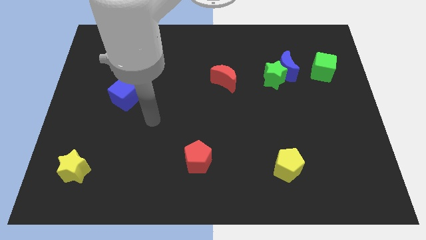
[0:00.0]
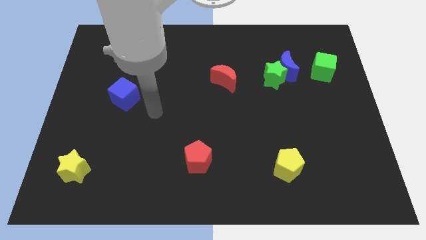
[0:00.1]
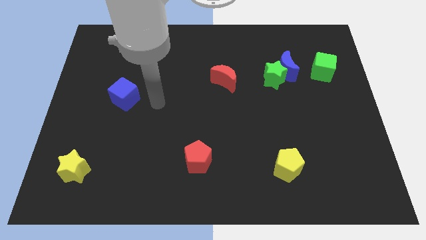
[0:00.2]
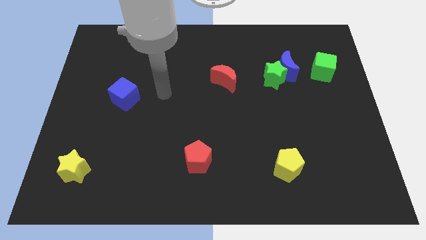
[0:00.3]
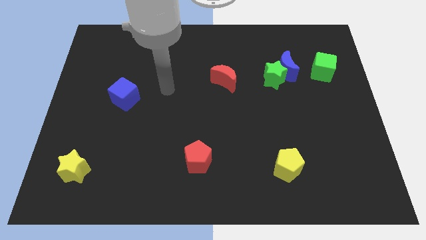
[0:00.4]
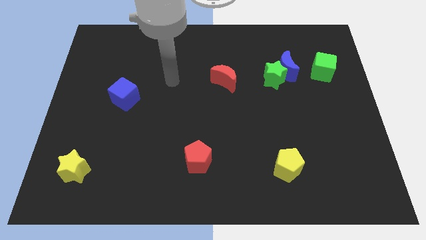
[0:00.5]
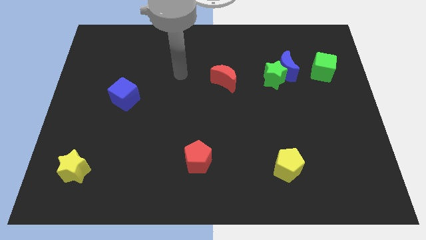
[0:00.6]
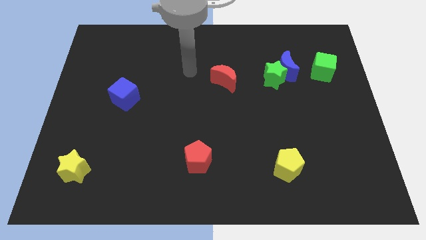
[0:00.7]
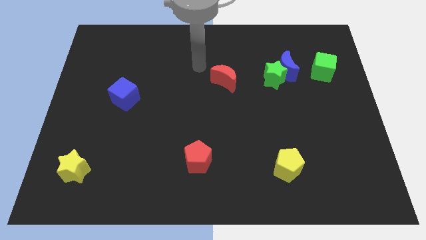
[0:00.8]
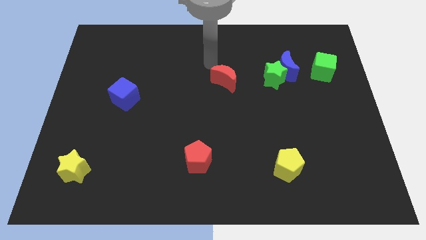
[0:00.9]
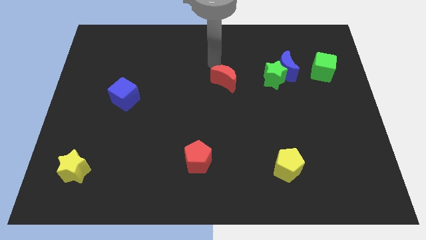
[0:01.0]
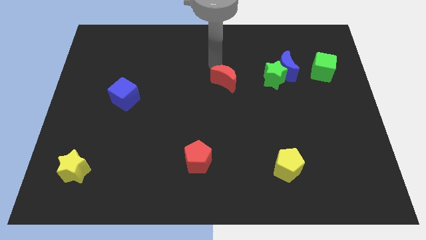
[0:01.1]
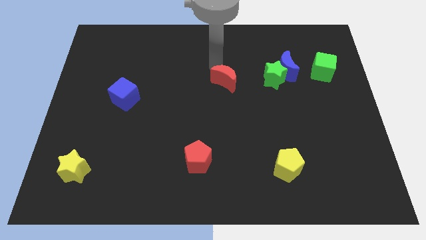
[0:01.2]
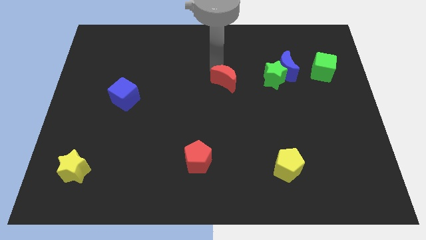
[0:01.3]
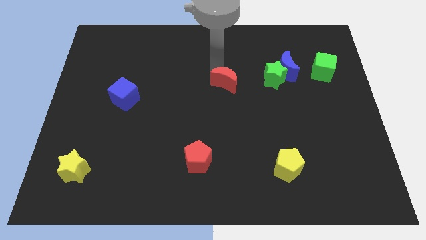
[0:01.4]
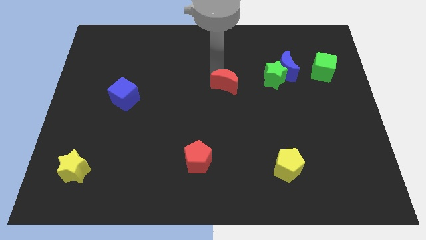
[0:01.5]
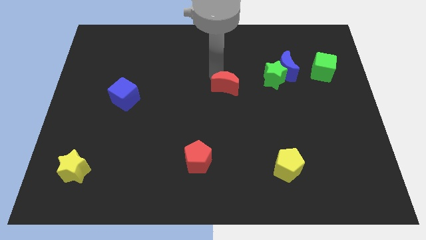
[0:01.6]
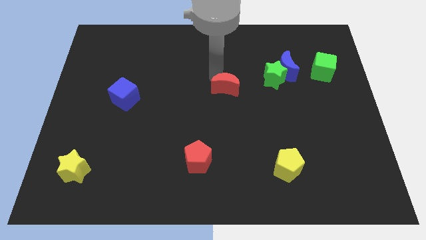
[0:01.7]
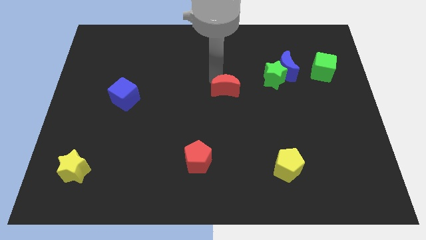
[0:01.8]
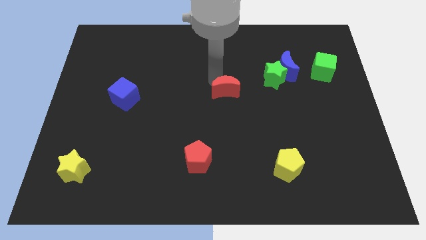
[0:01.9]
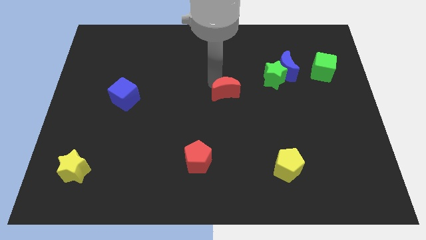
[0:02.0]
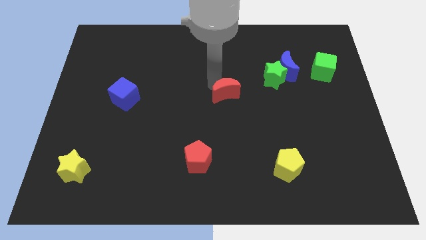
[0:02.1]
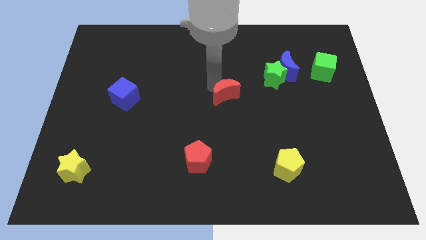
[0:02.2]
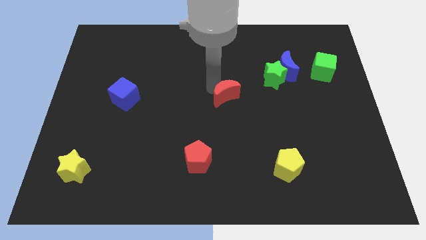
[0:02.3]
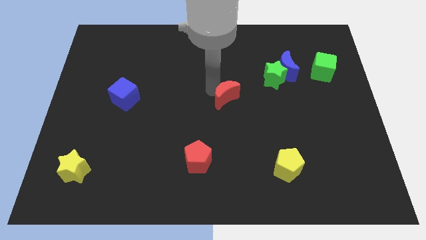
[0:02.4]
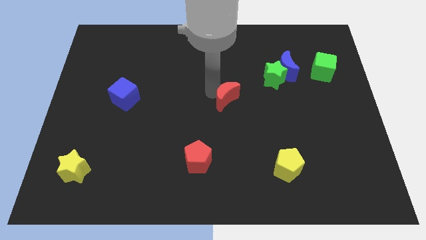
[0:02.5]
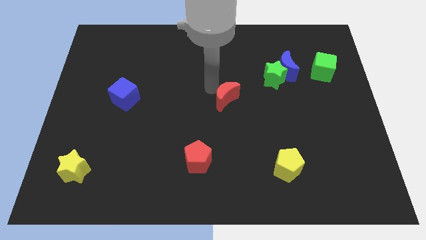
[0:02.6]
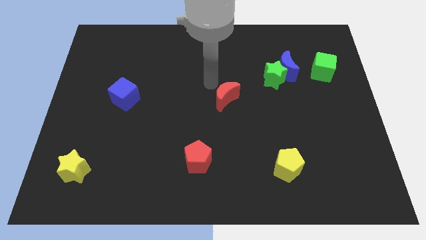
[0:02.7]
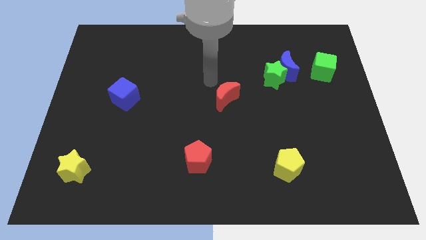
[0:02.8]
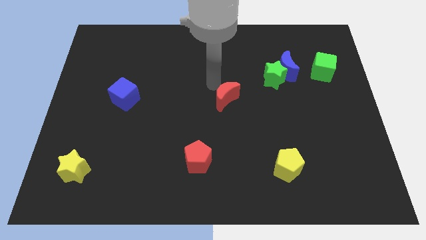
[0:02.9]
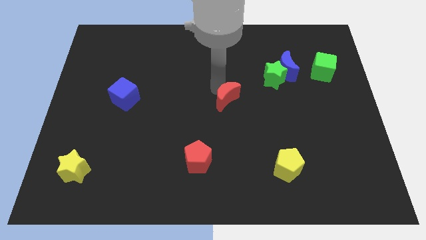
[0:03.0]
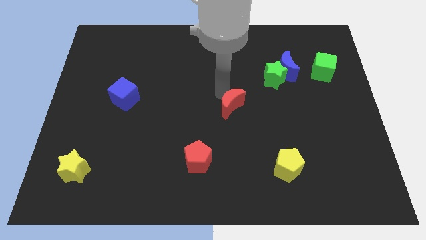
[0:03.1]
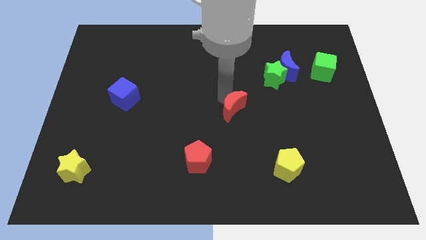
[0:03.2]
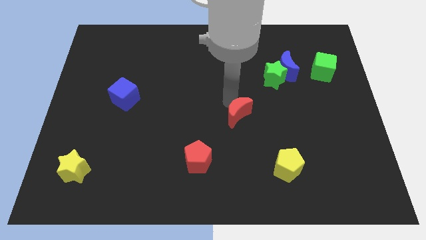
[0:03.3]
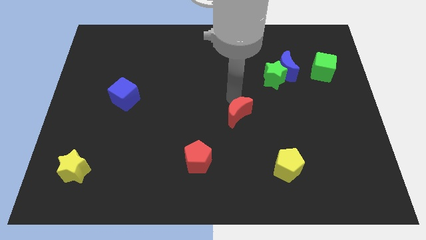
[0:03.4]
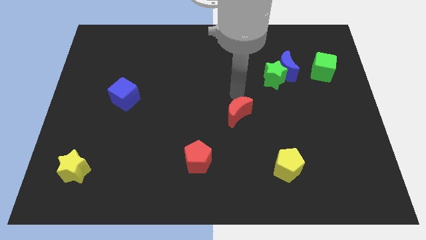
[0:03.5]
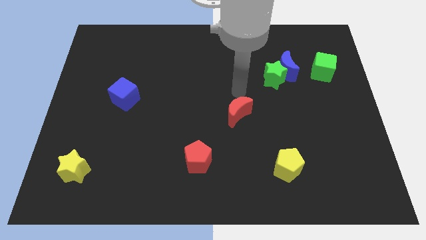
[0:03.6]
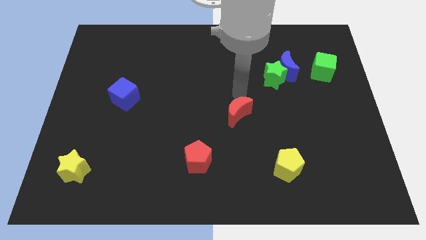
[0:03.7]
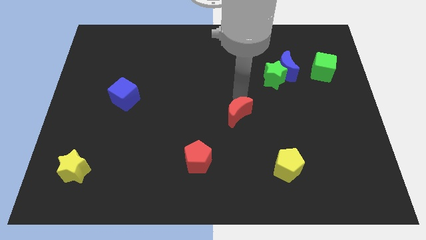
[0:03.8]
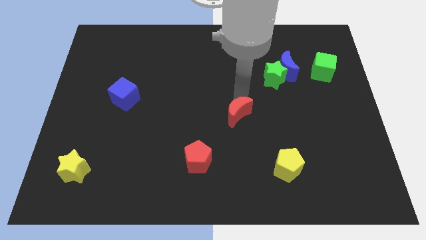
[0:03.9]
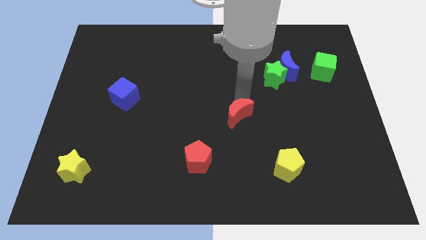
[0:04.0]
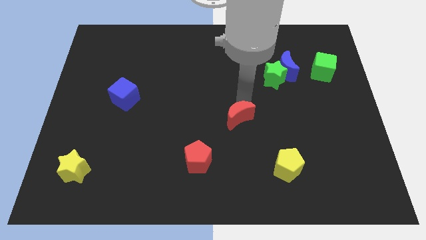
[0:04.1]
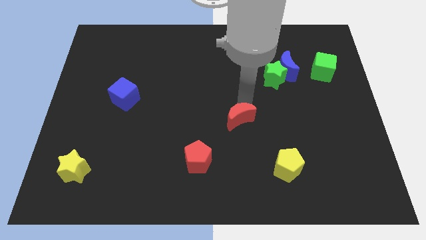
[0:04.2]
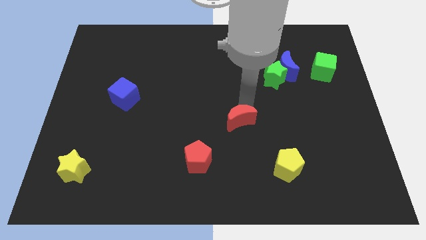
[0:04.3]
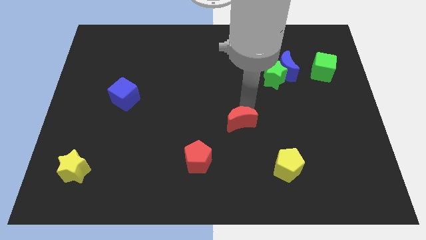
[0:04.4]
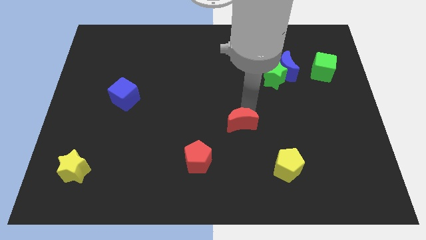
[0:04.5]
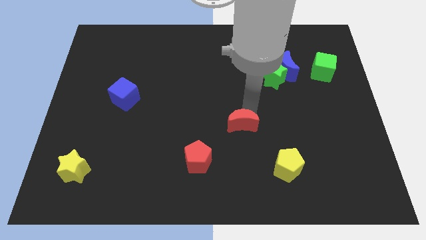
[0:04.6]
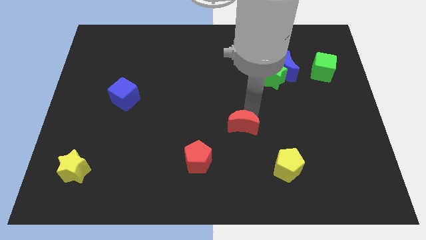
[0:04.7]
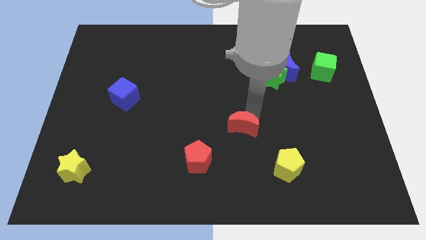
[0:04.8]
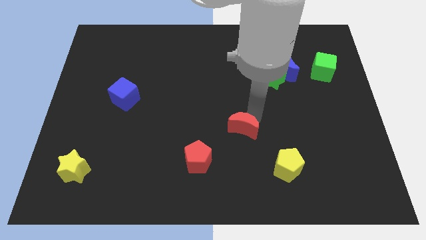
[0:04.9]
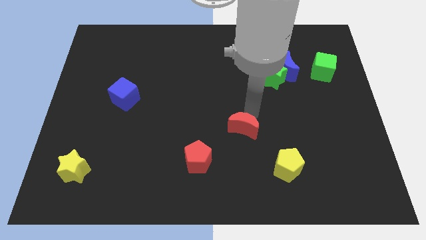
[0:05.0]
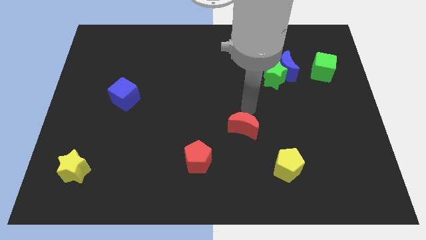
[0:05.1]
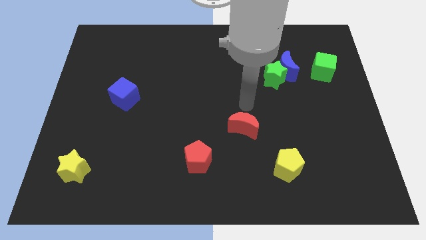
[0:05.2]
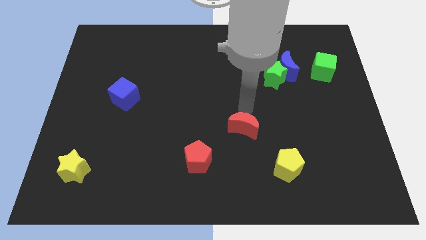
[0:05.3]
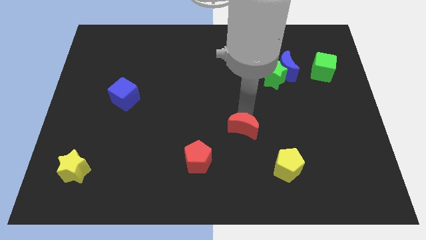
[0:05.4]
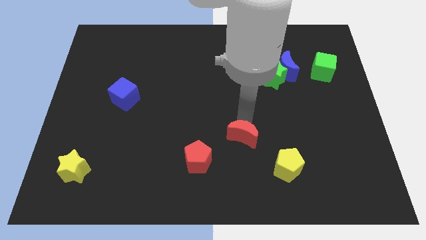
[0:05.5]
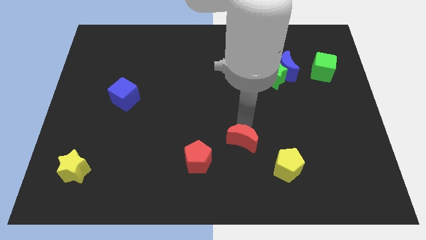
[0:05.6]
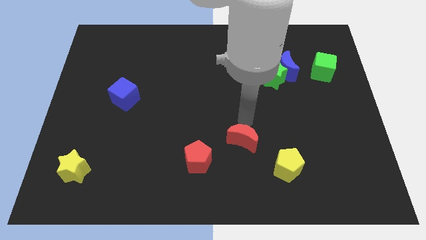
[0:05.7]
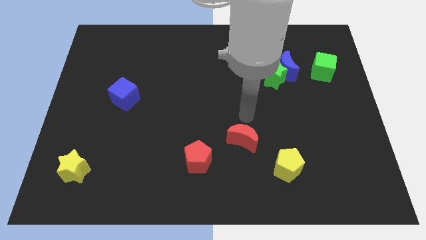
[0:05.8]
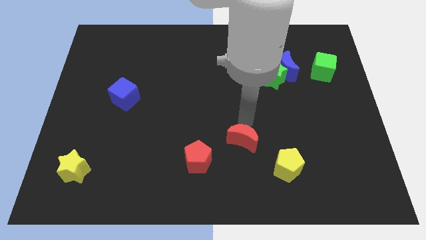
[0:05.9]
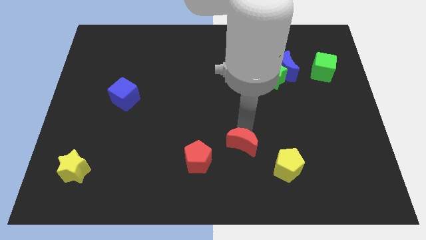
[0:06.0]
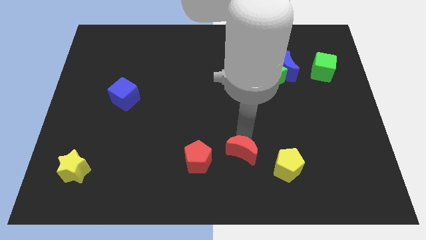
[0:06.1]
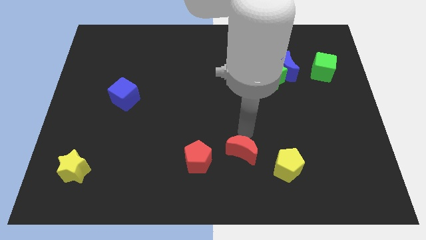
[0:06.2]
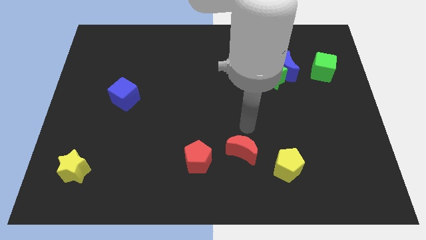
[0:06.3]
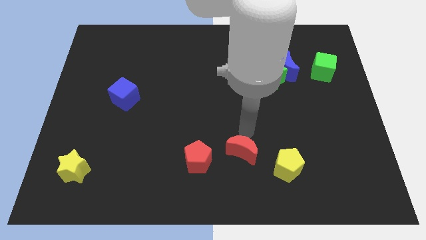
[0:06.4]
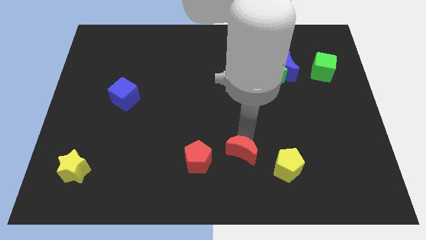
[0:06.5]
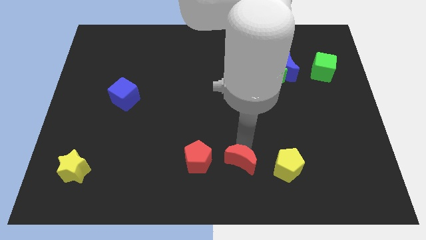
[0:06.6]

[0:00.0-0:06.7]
put the red moon to the bottom side
